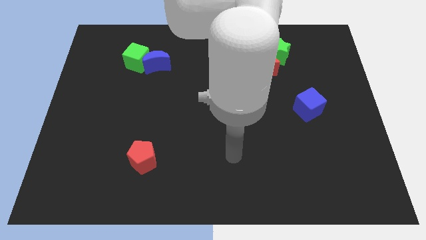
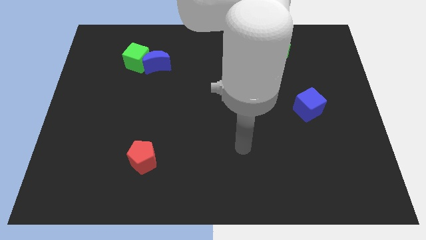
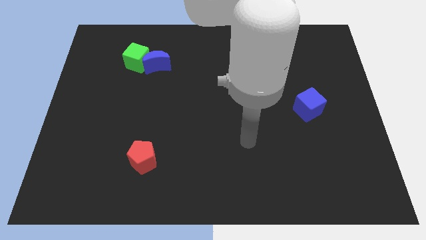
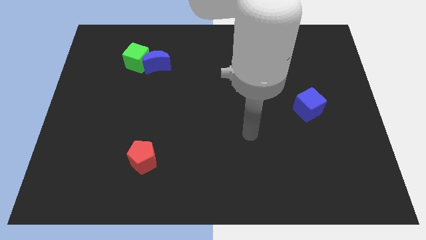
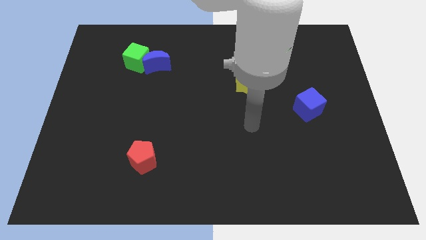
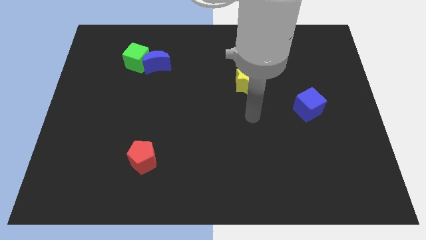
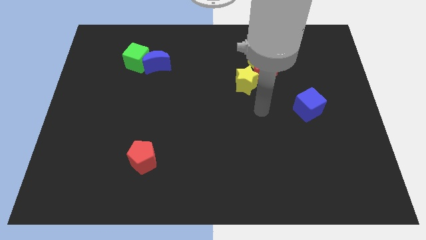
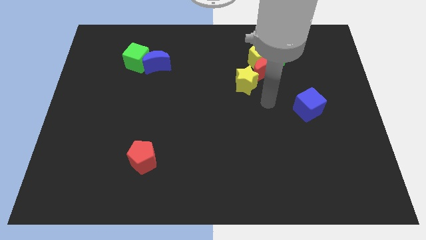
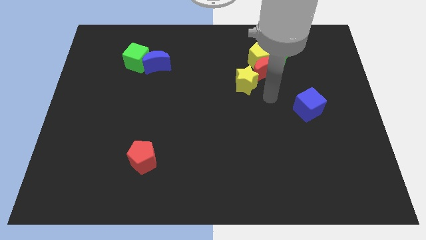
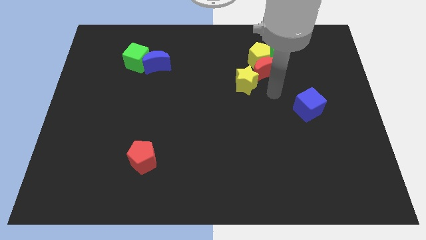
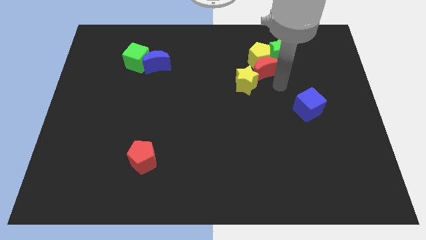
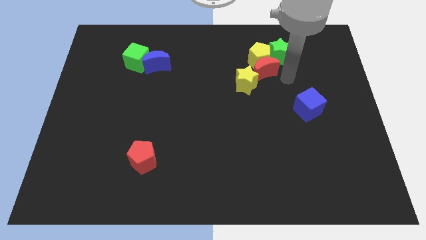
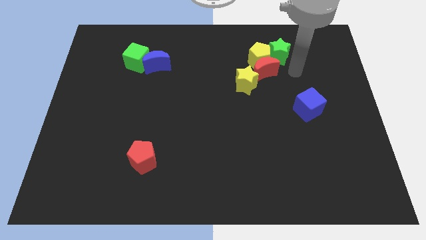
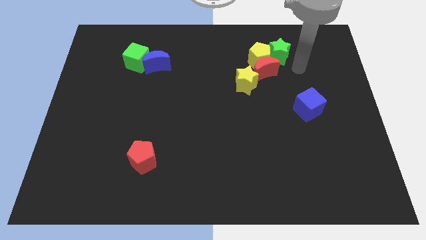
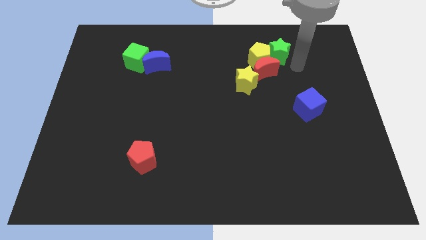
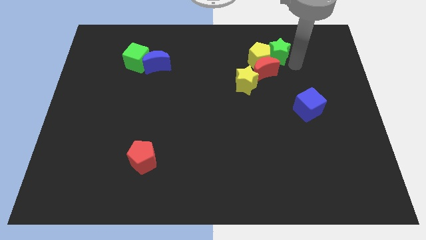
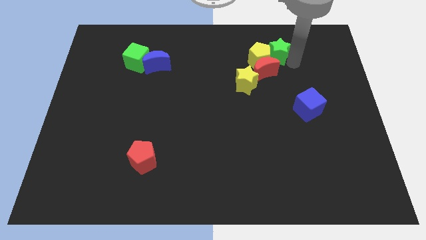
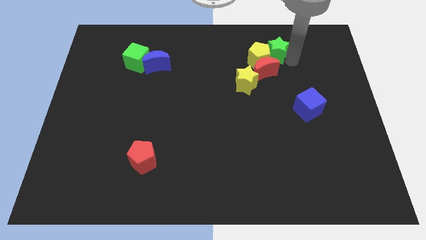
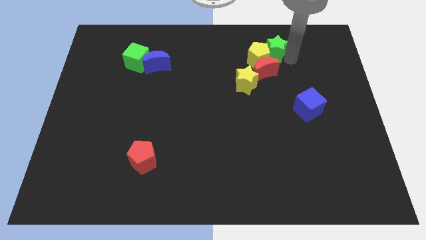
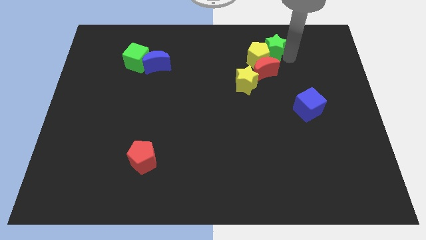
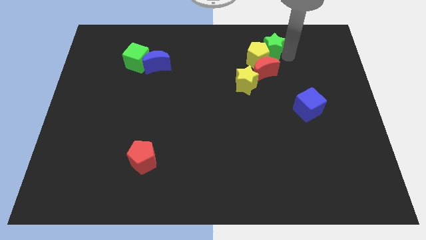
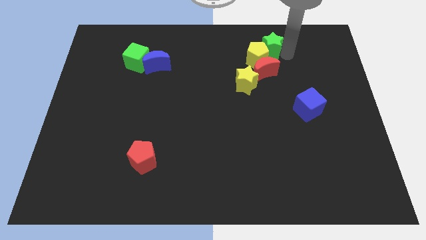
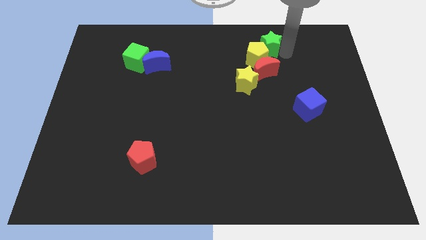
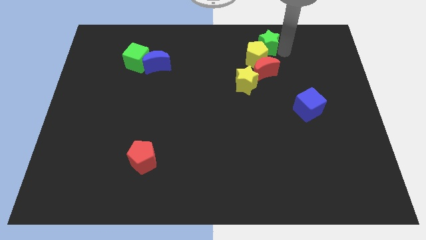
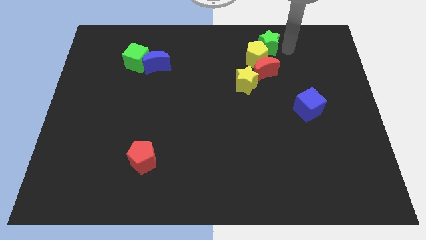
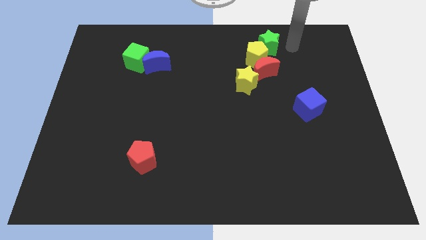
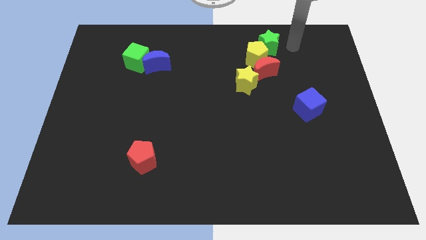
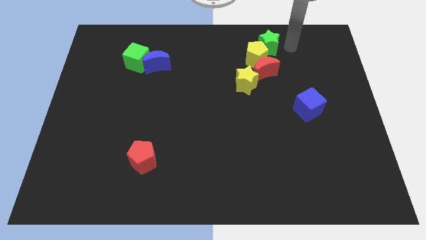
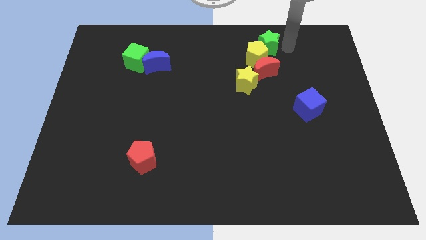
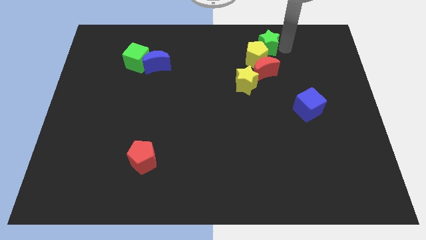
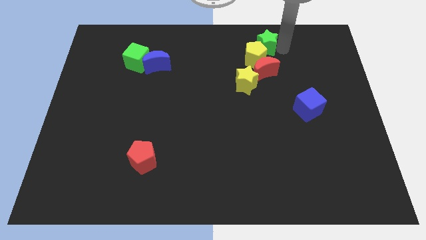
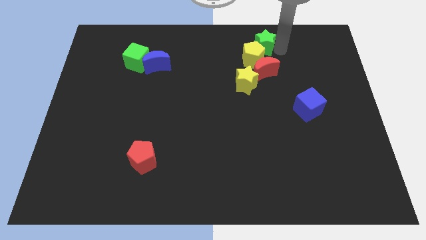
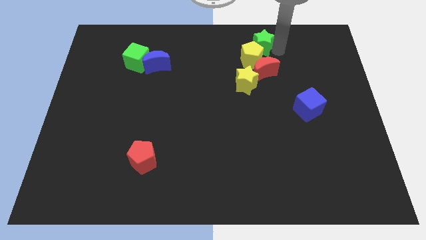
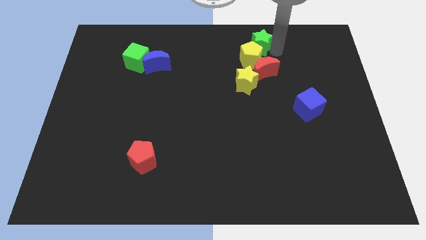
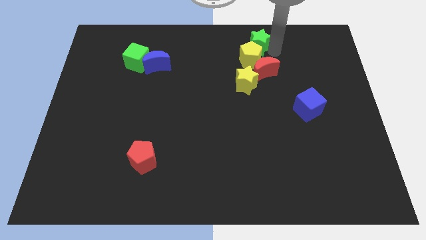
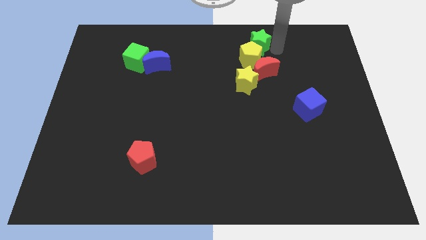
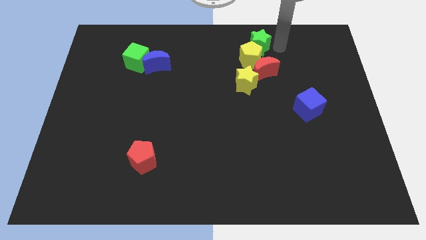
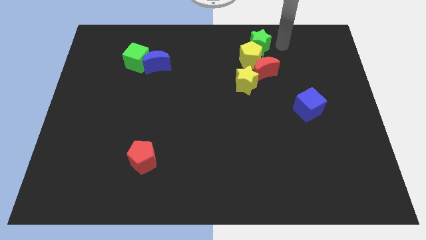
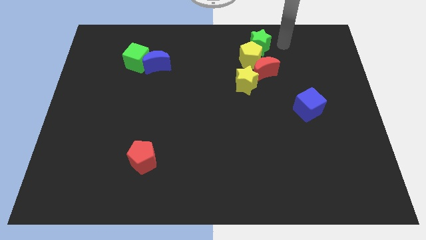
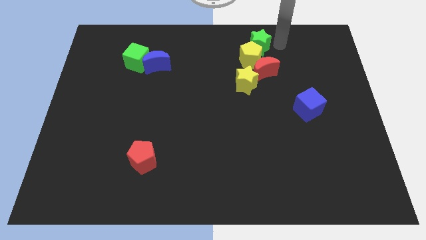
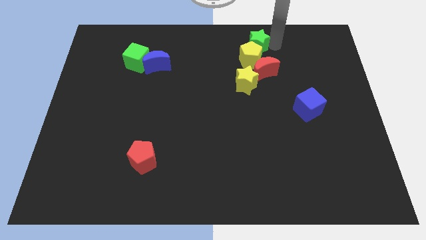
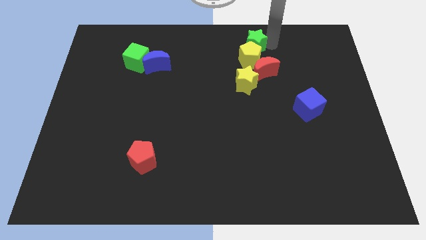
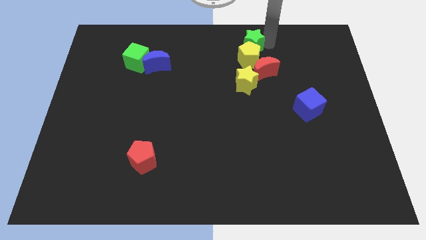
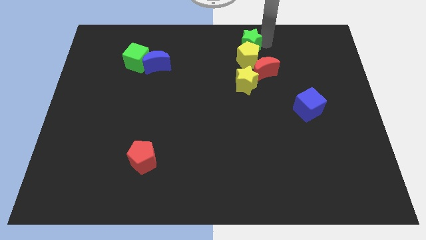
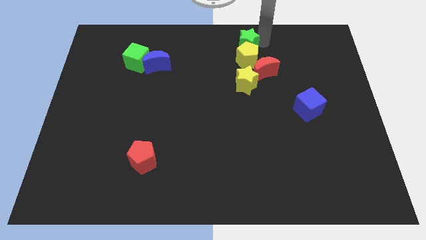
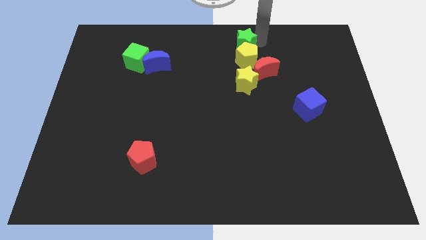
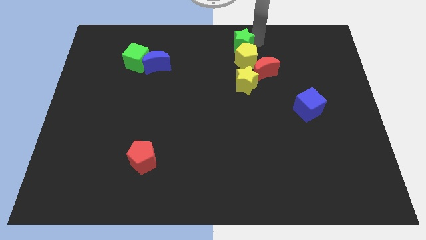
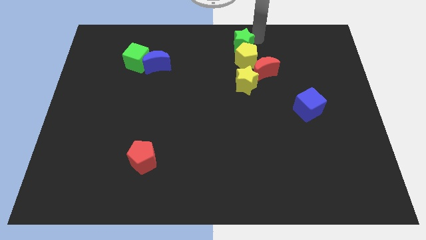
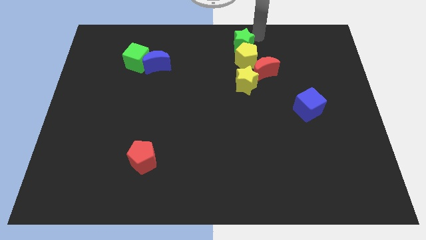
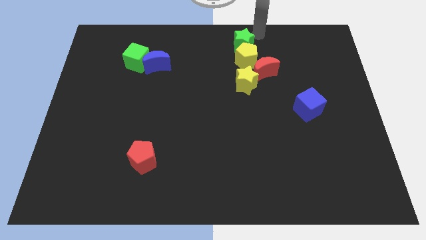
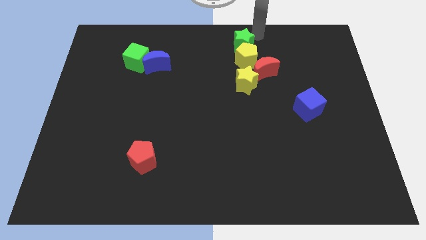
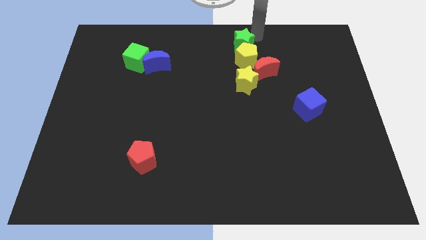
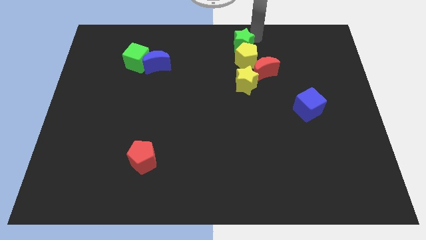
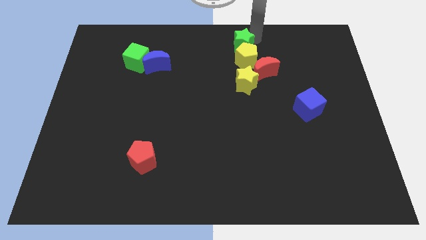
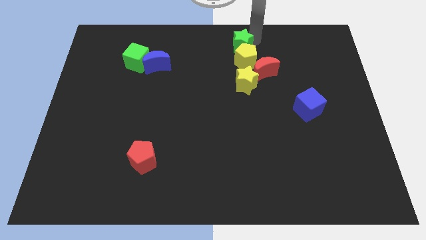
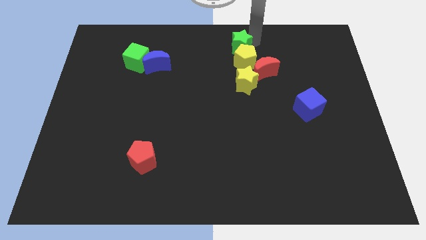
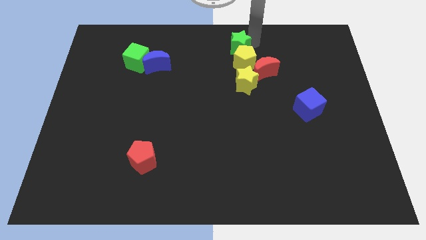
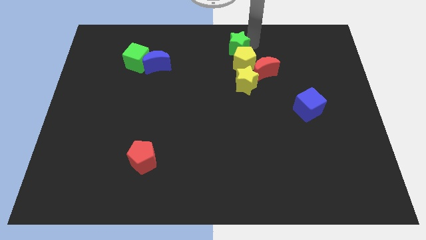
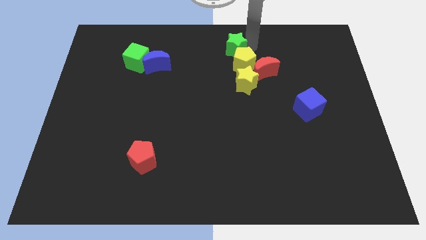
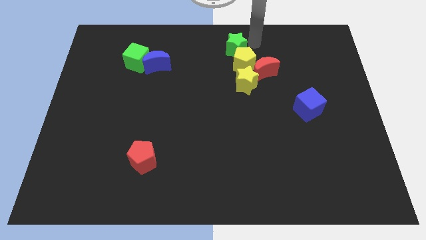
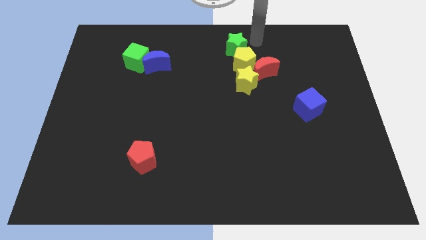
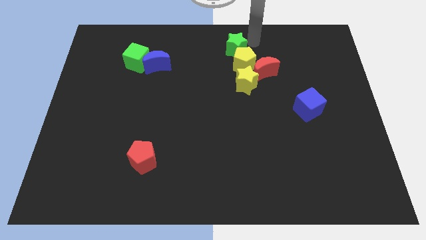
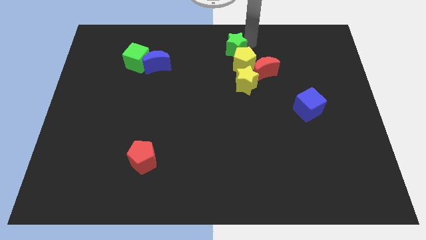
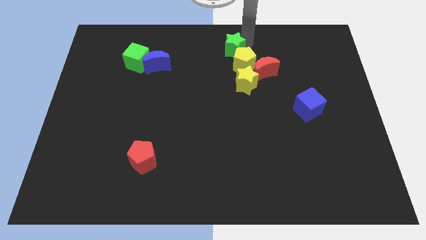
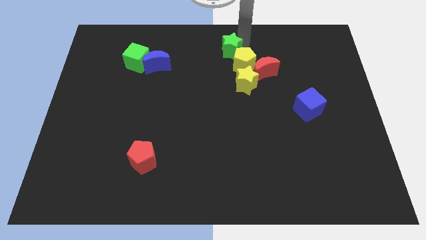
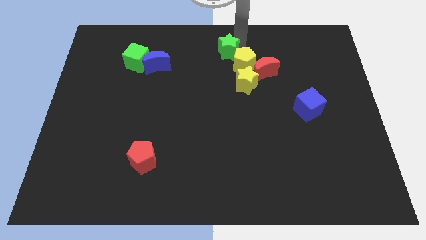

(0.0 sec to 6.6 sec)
move the green star to the left of the yellow pentagon
